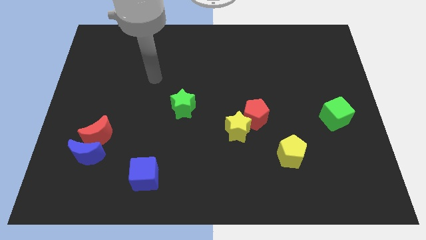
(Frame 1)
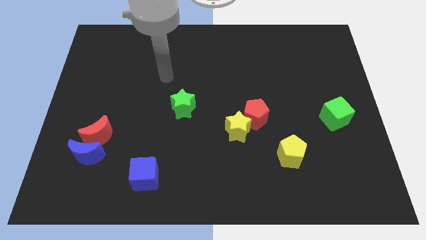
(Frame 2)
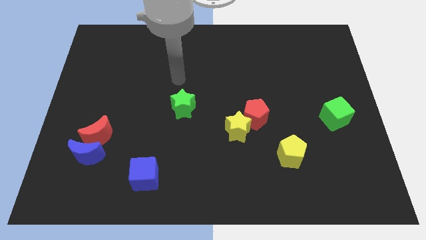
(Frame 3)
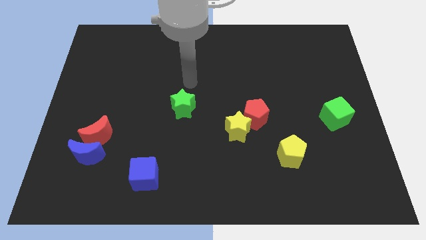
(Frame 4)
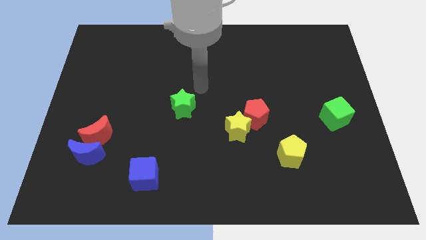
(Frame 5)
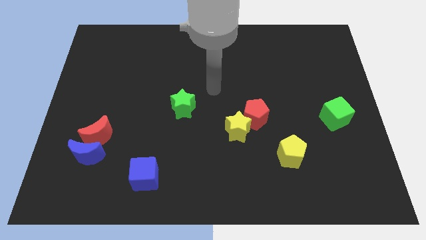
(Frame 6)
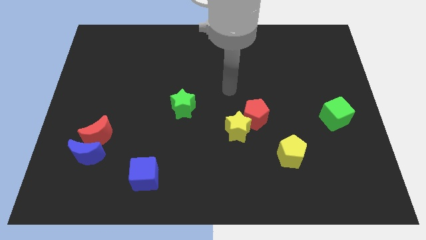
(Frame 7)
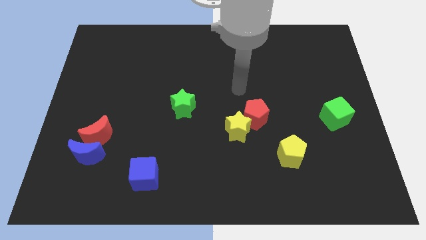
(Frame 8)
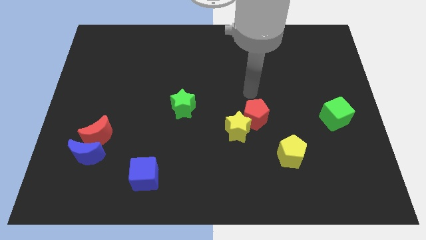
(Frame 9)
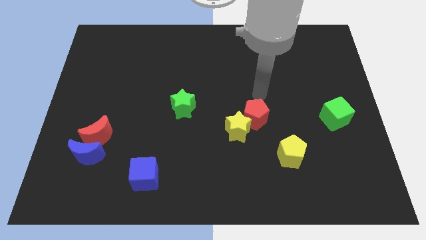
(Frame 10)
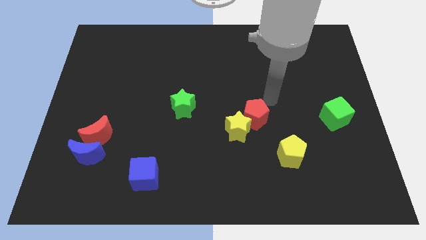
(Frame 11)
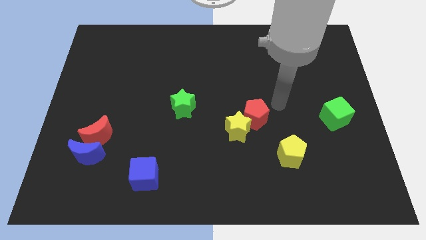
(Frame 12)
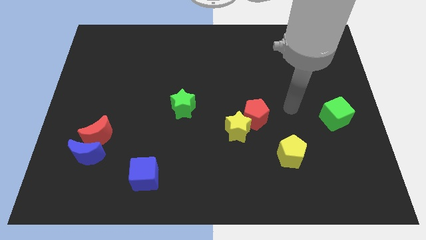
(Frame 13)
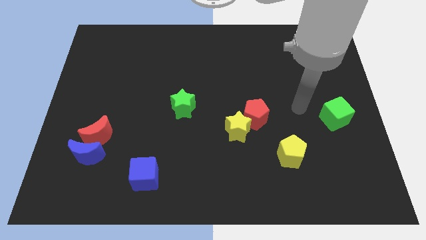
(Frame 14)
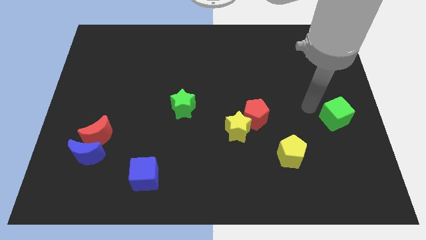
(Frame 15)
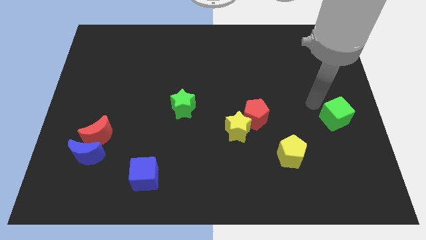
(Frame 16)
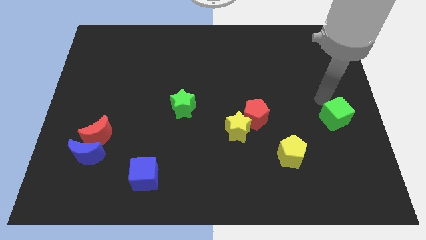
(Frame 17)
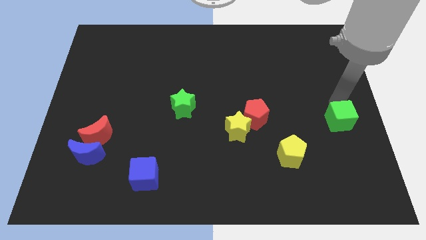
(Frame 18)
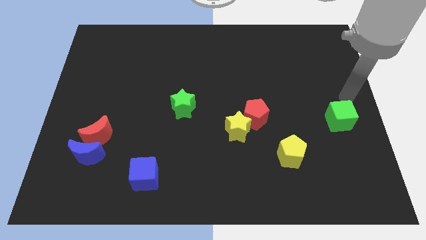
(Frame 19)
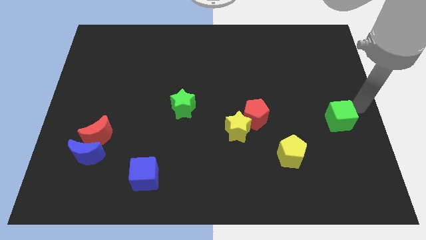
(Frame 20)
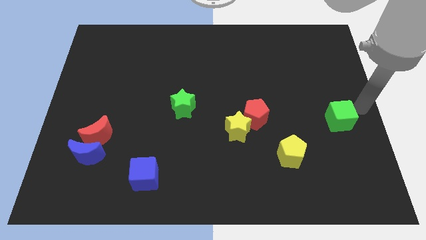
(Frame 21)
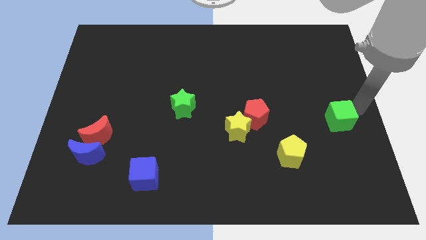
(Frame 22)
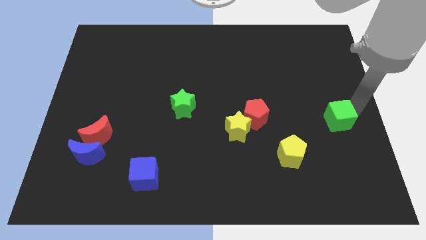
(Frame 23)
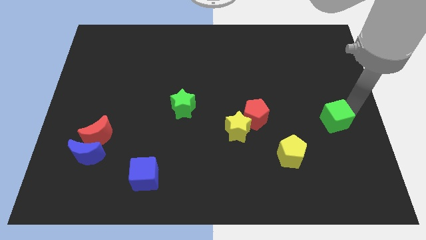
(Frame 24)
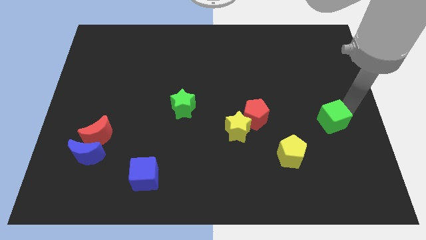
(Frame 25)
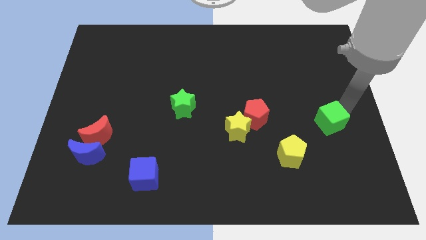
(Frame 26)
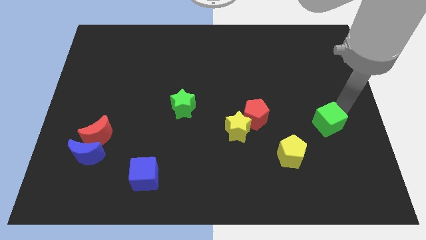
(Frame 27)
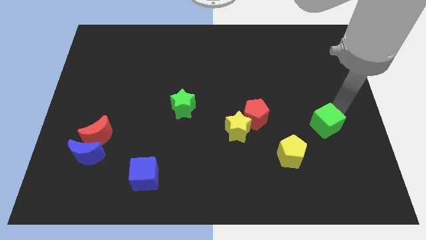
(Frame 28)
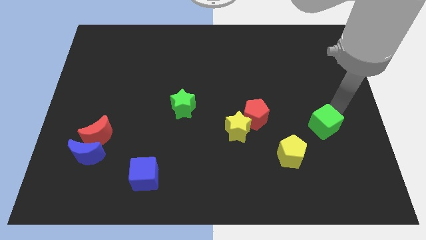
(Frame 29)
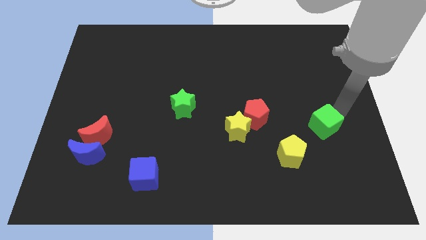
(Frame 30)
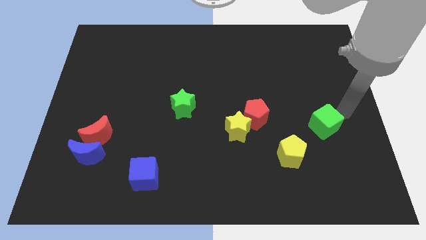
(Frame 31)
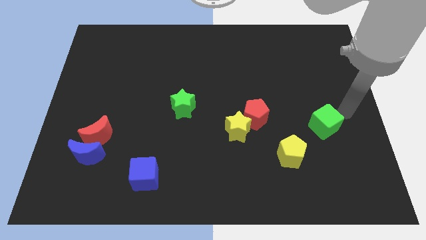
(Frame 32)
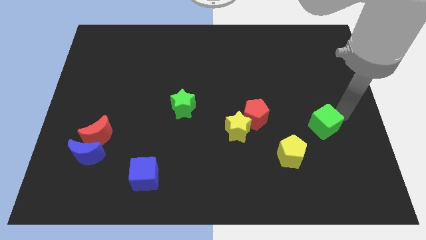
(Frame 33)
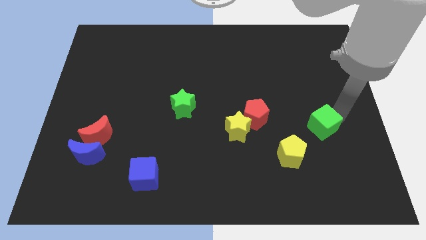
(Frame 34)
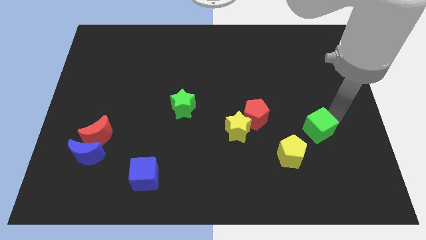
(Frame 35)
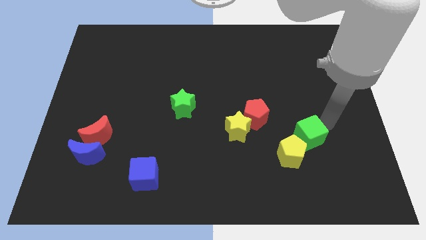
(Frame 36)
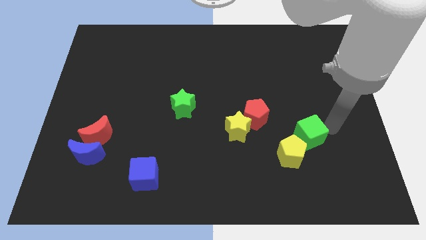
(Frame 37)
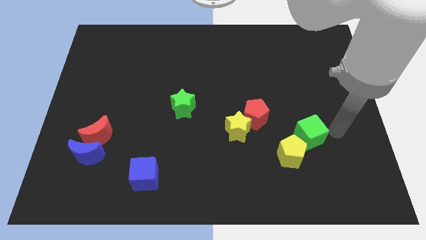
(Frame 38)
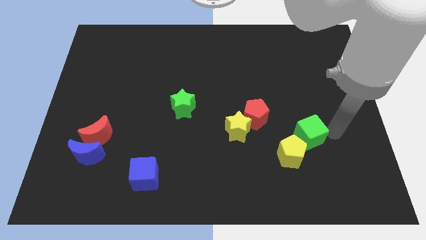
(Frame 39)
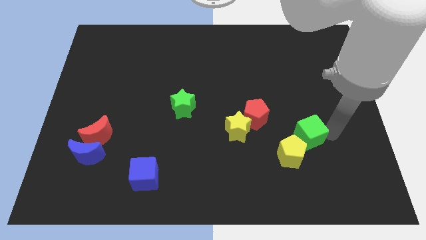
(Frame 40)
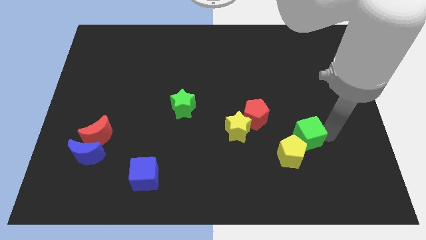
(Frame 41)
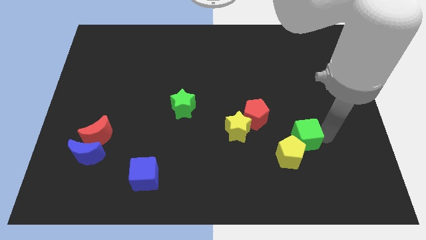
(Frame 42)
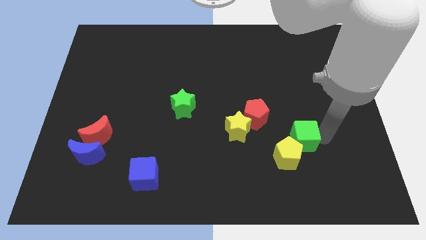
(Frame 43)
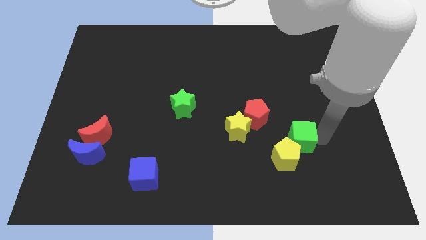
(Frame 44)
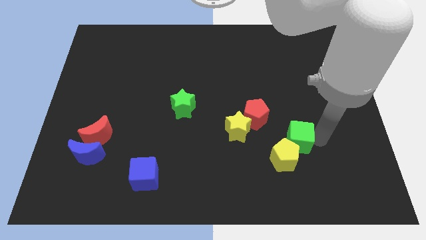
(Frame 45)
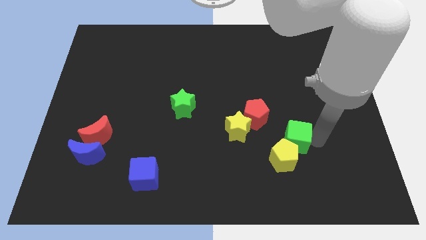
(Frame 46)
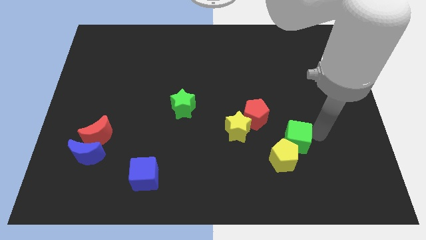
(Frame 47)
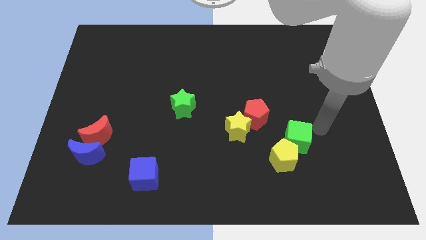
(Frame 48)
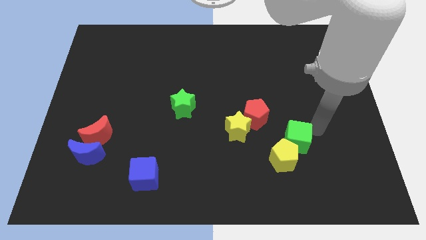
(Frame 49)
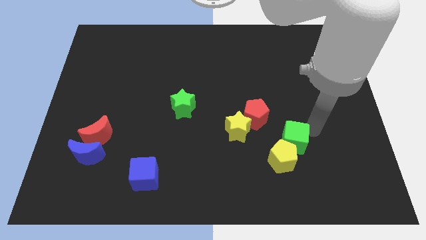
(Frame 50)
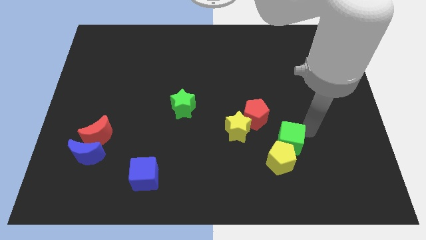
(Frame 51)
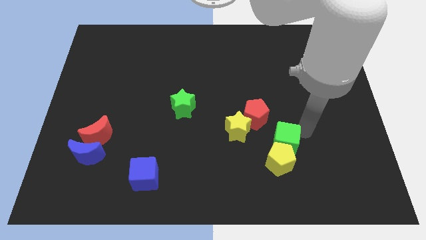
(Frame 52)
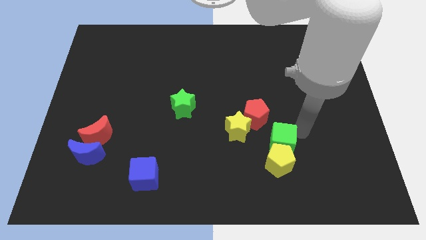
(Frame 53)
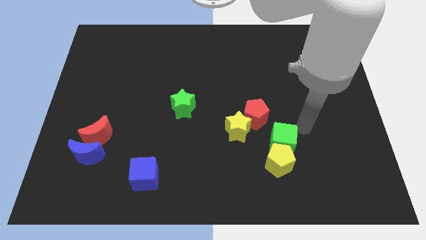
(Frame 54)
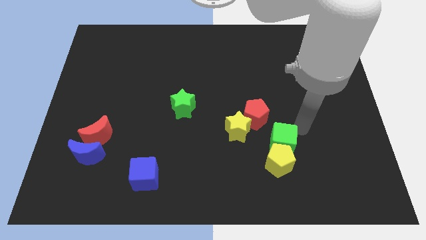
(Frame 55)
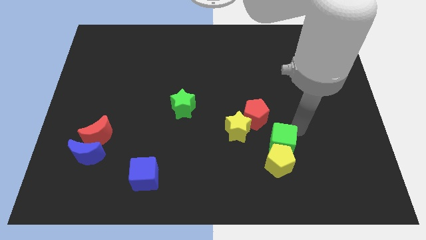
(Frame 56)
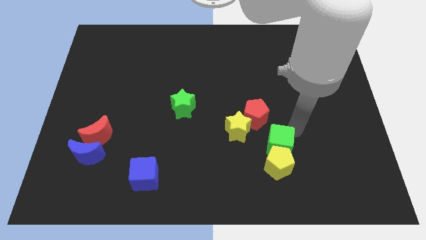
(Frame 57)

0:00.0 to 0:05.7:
slide the green cube below the red pentagon

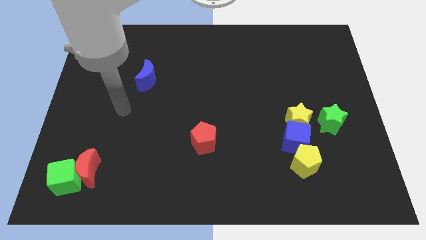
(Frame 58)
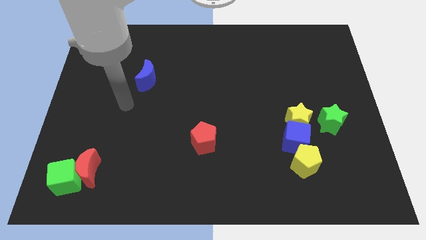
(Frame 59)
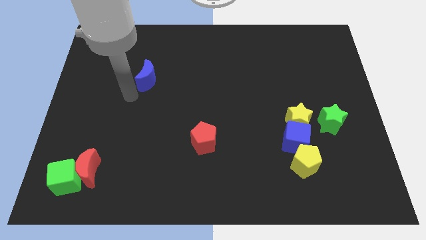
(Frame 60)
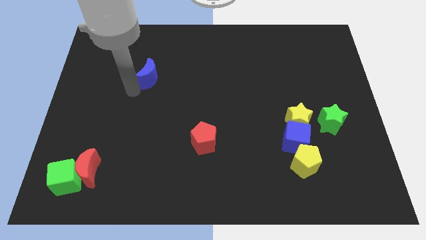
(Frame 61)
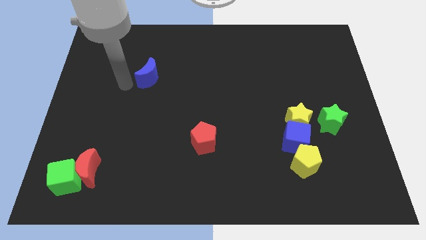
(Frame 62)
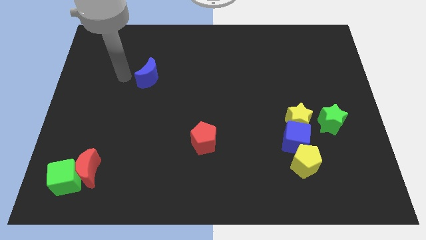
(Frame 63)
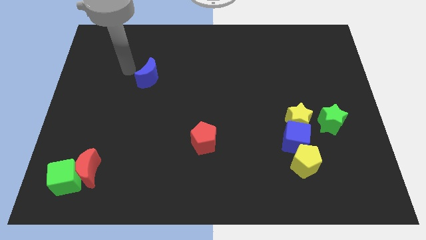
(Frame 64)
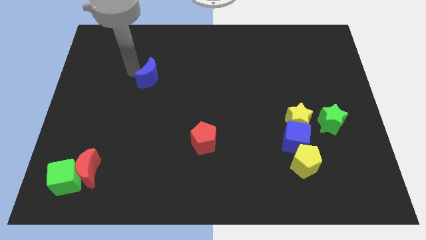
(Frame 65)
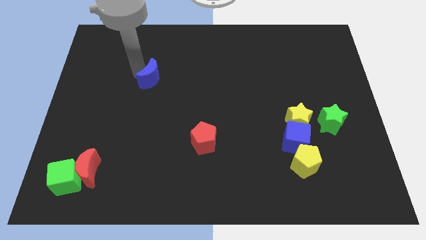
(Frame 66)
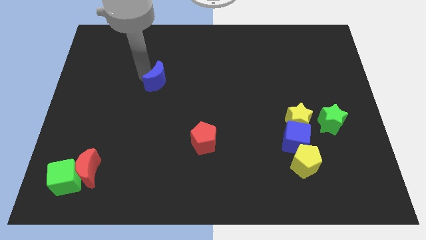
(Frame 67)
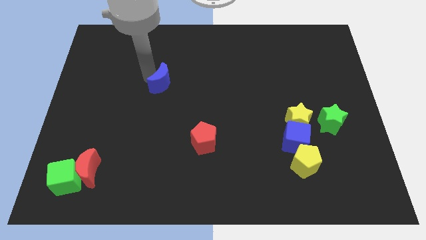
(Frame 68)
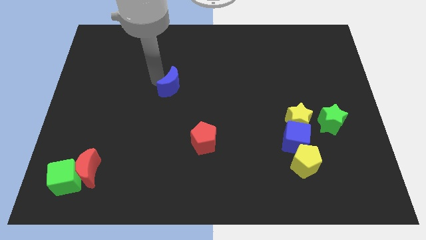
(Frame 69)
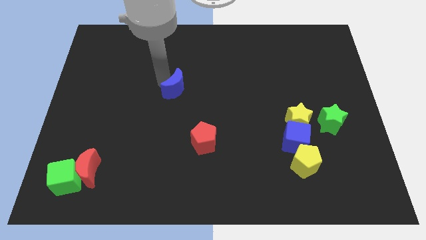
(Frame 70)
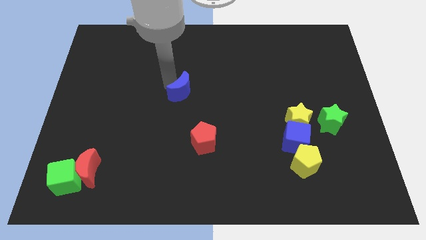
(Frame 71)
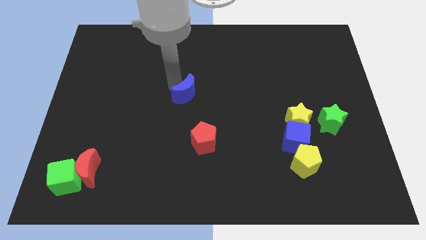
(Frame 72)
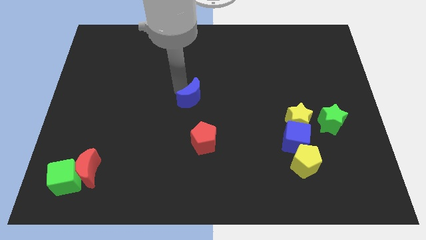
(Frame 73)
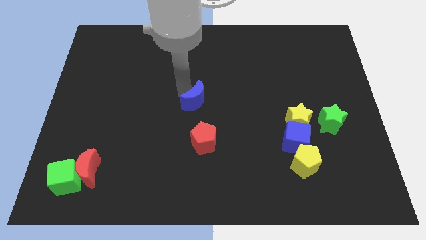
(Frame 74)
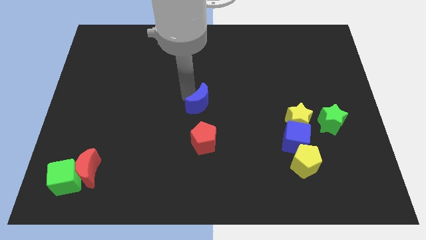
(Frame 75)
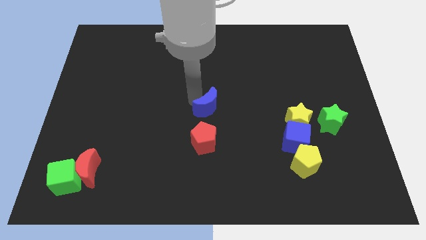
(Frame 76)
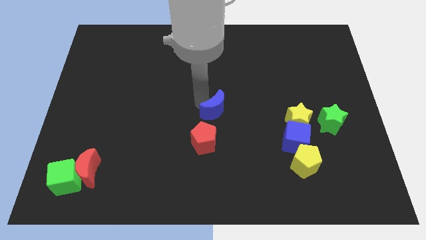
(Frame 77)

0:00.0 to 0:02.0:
push the blue moon to the top right side of the red pentagon
